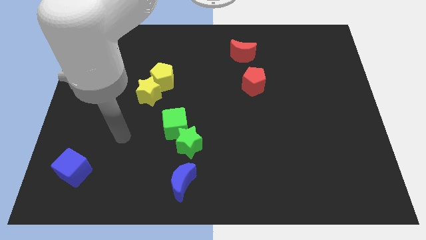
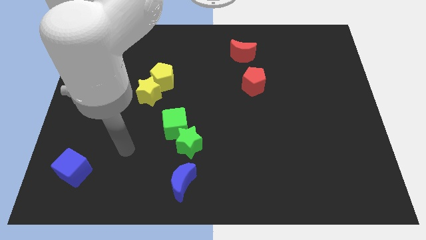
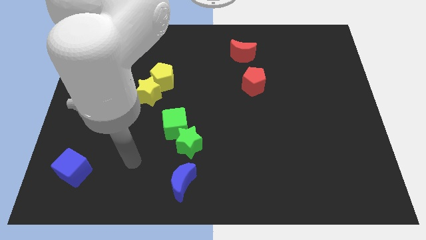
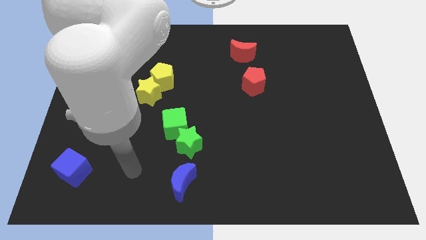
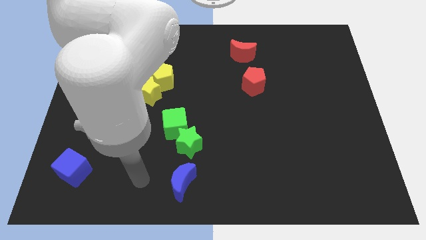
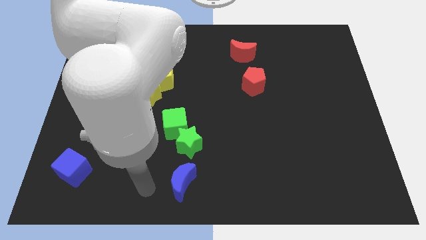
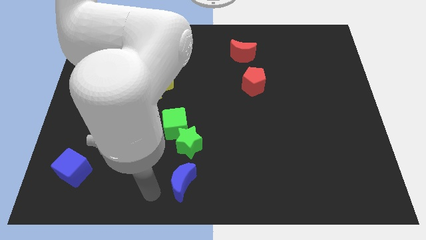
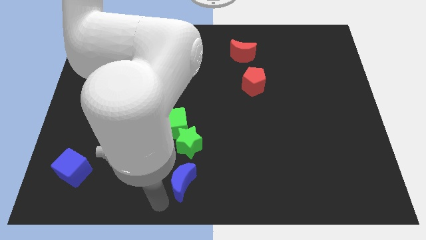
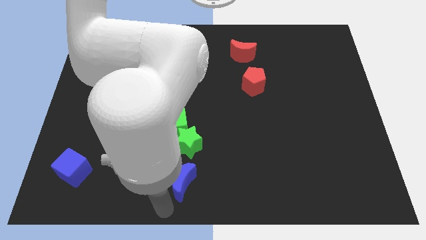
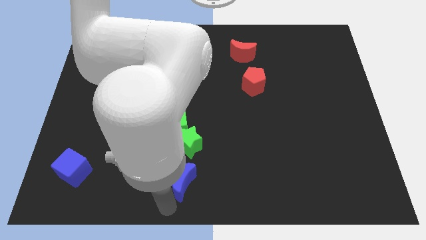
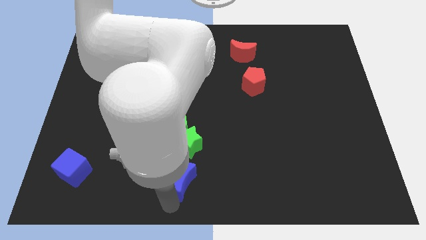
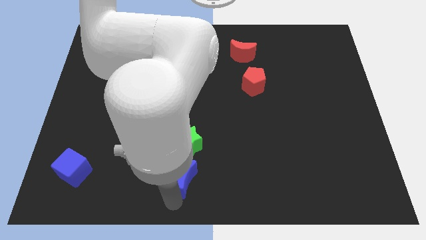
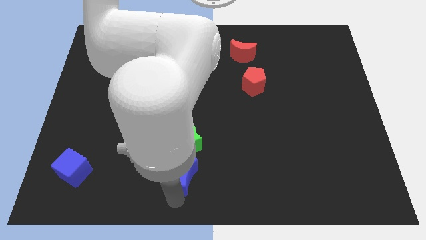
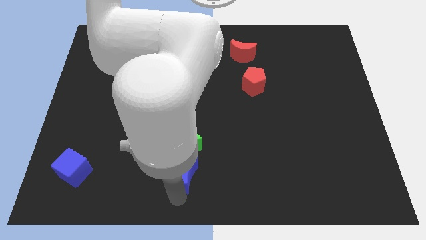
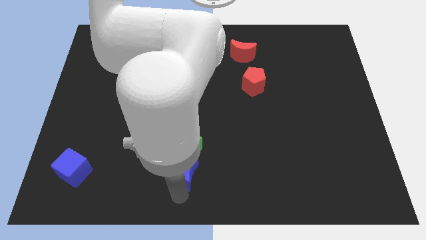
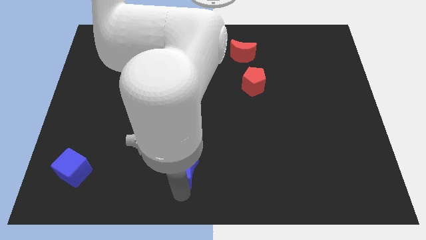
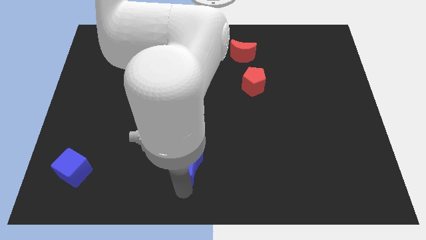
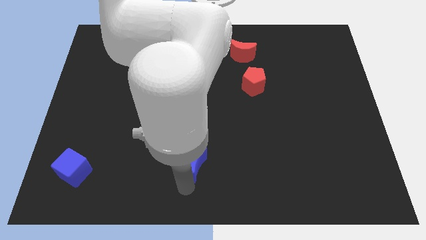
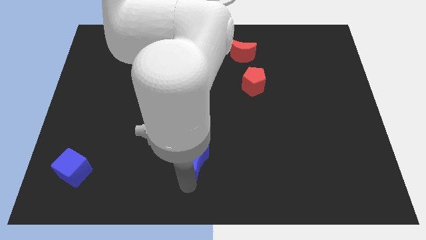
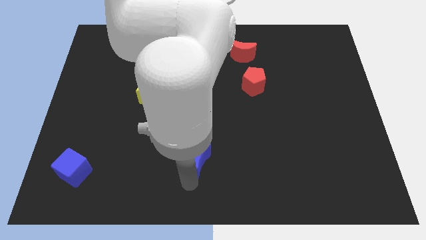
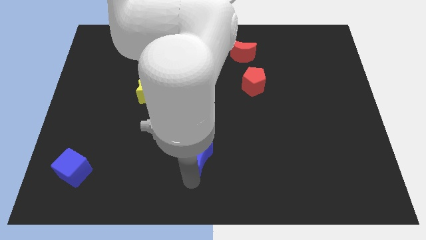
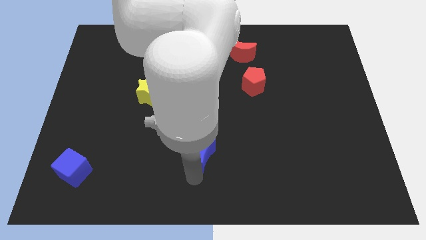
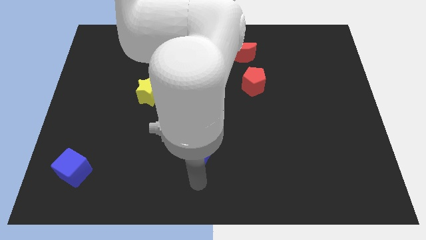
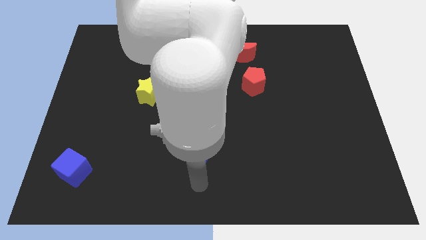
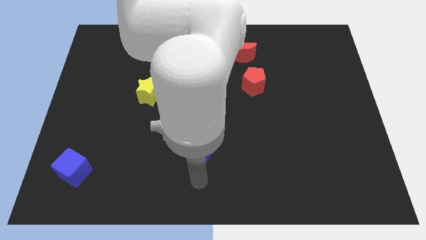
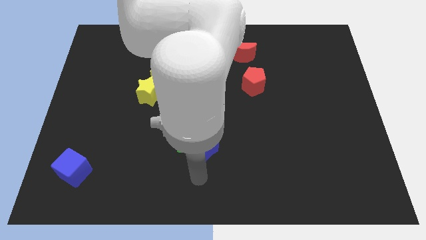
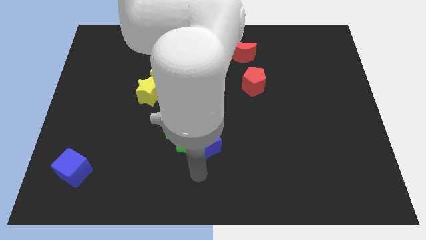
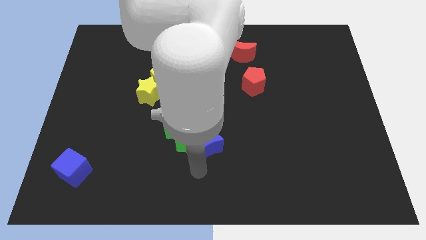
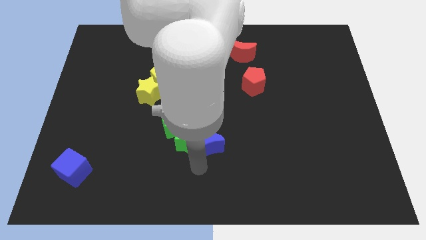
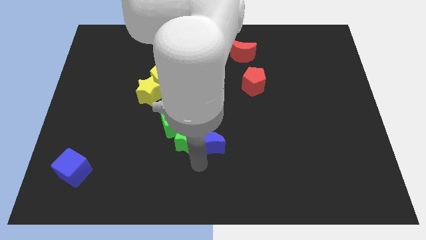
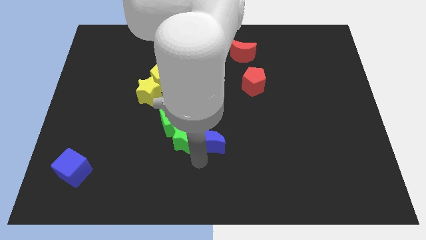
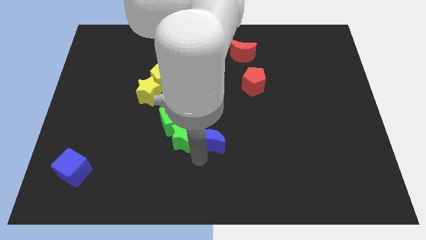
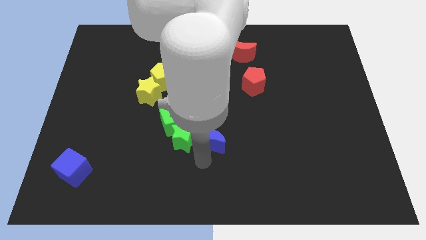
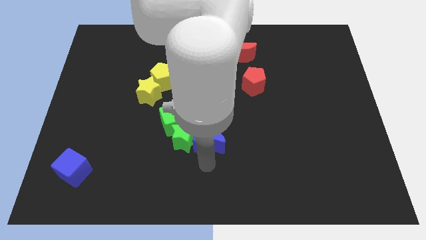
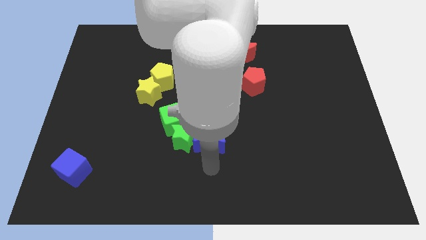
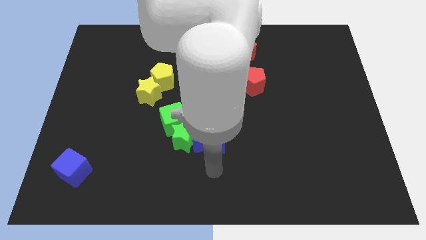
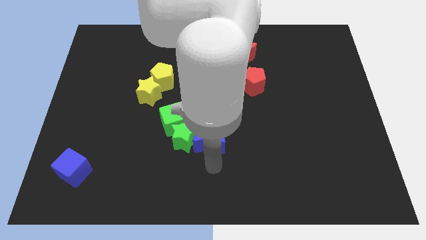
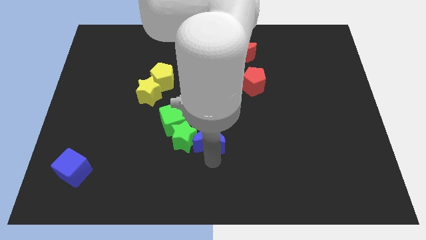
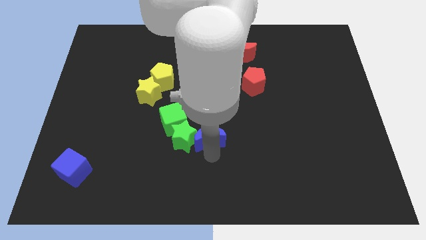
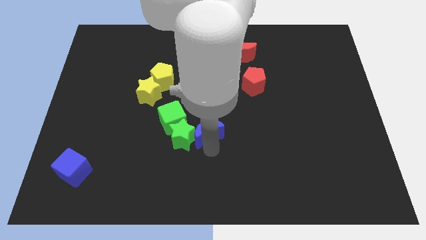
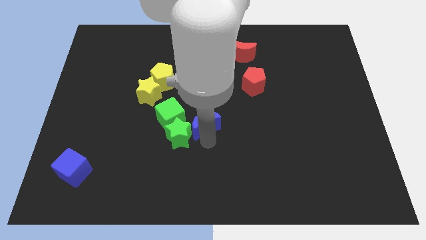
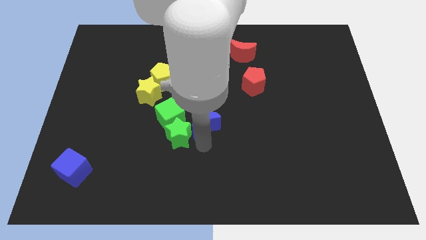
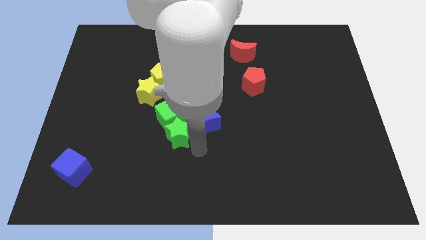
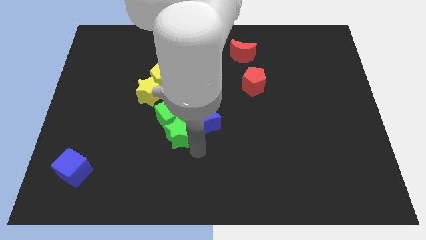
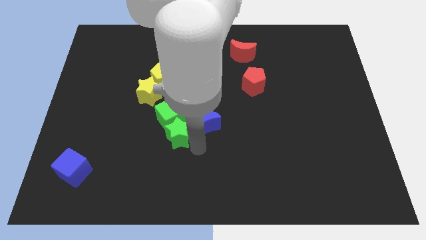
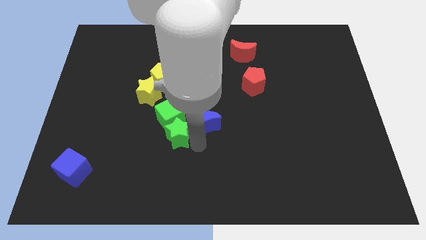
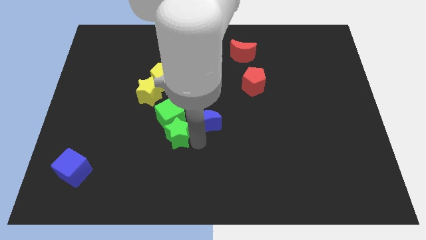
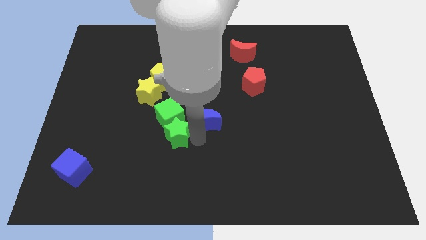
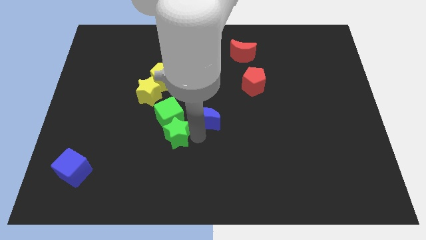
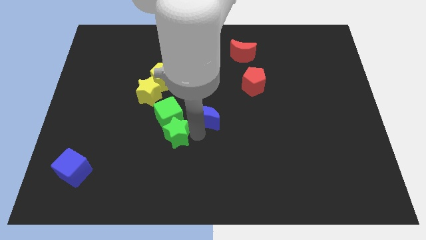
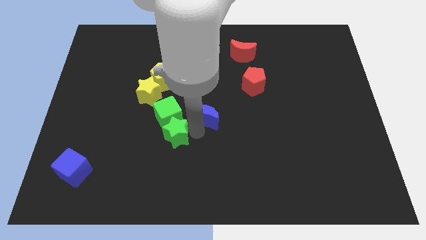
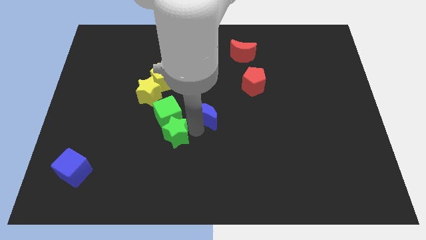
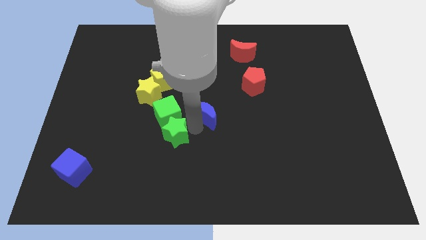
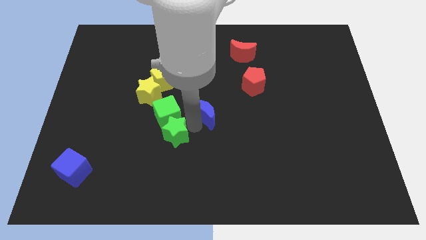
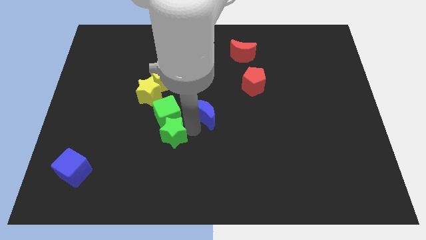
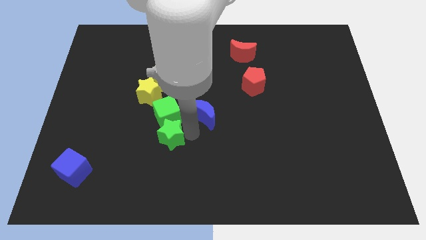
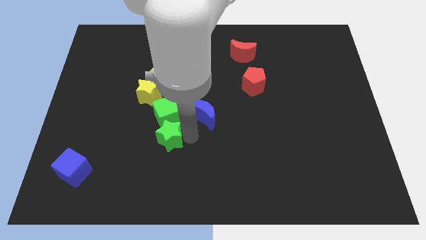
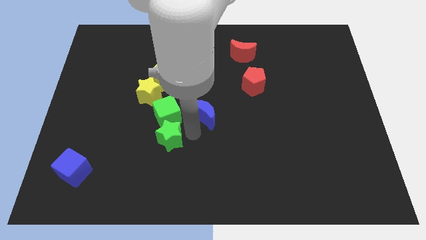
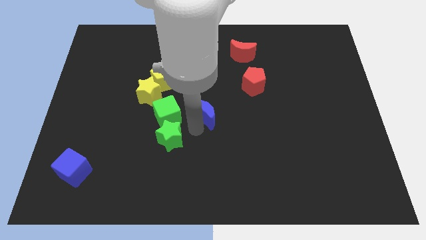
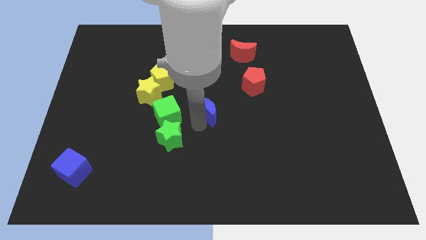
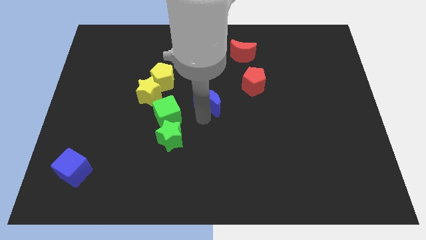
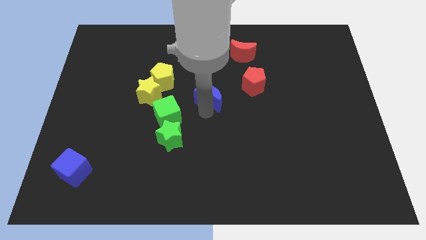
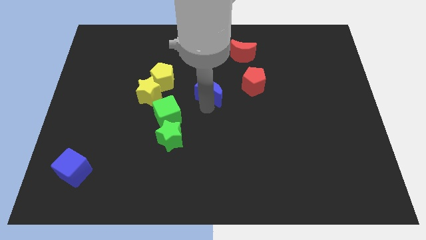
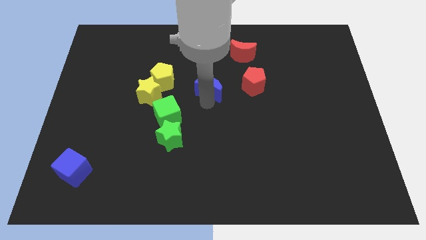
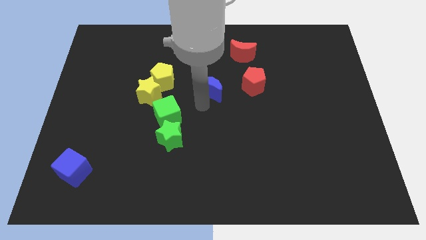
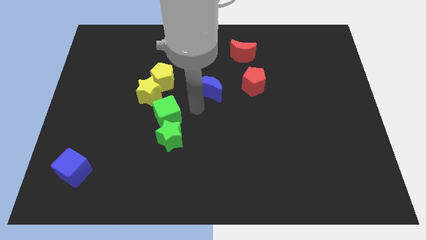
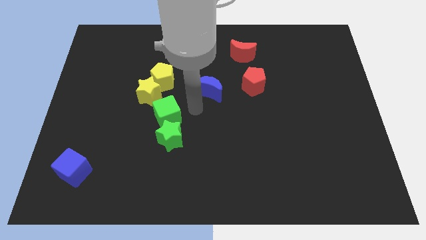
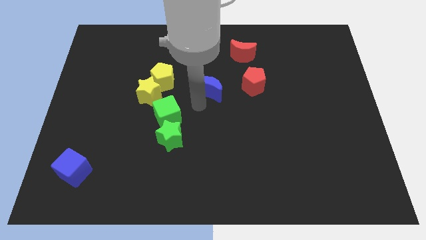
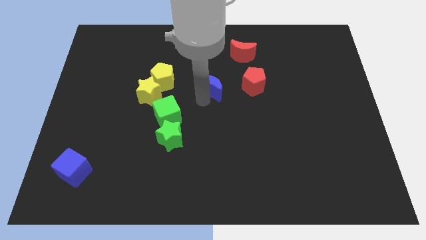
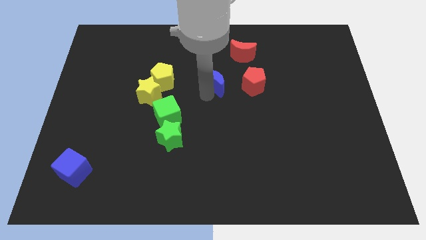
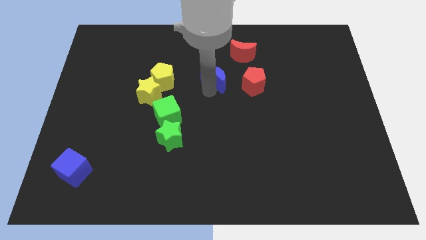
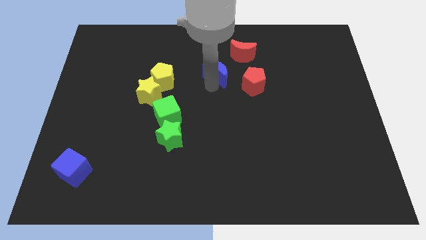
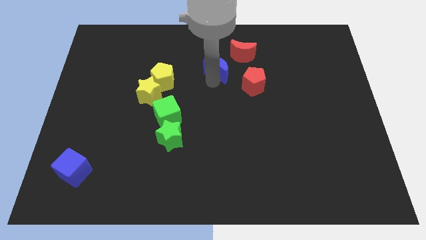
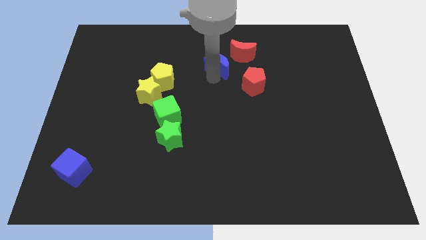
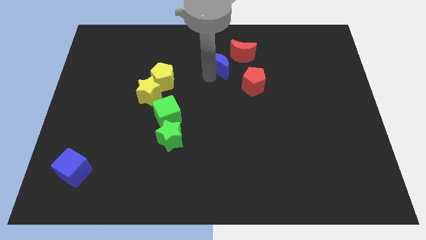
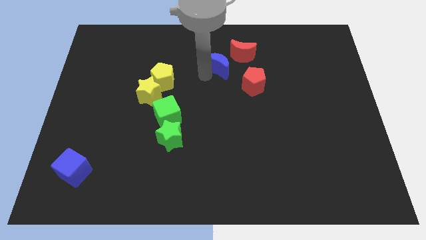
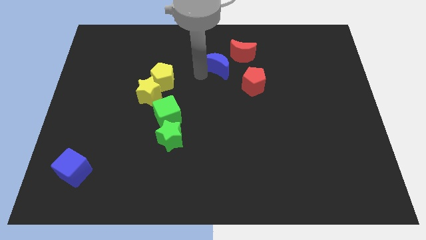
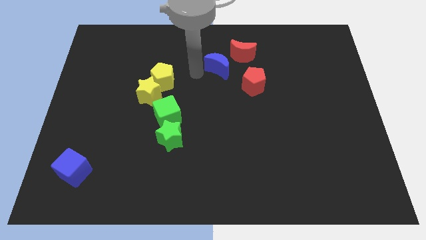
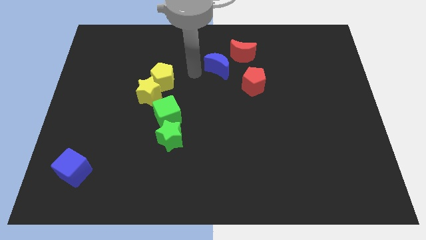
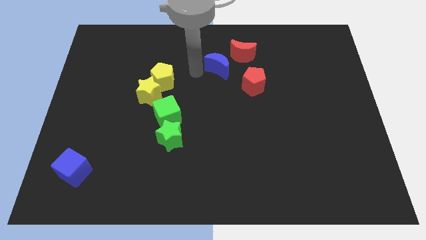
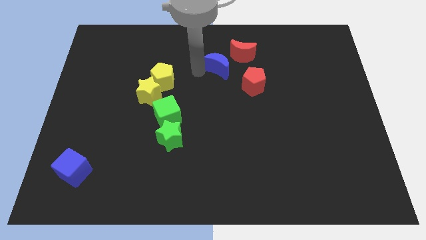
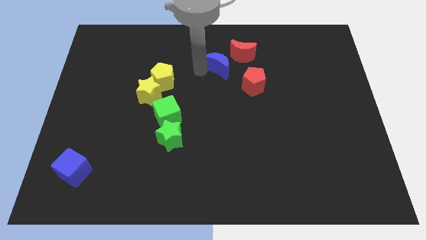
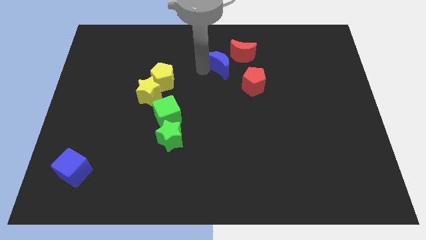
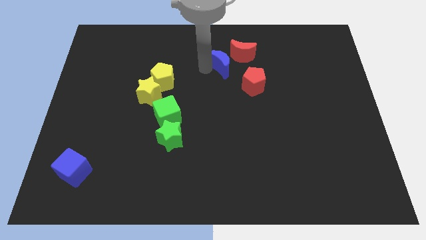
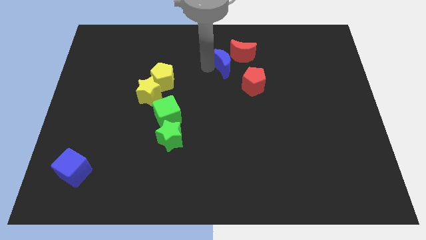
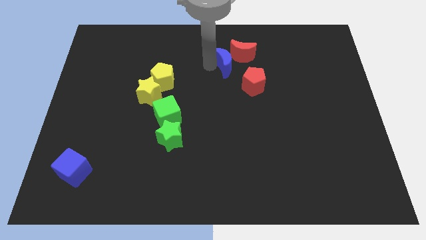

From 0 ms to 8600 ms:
put the blue moon close to the red moon
